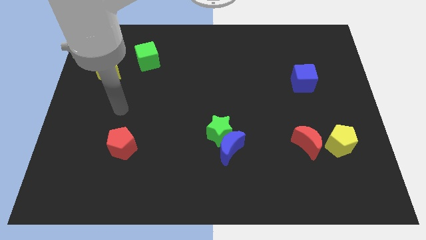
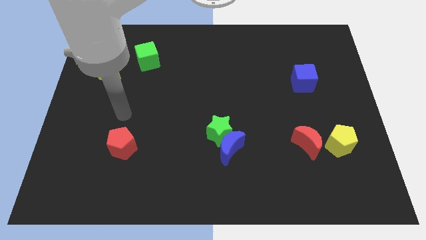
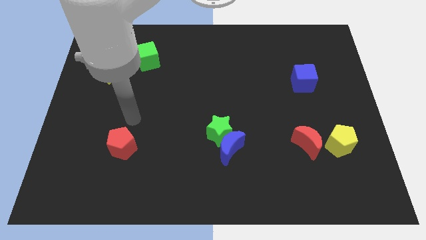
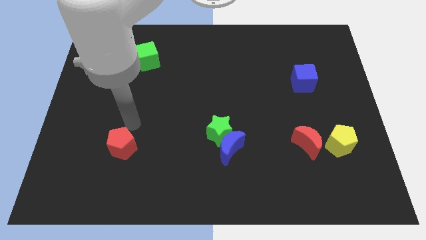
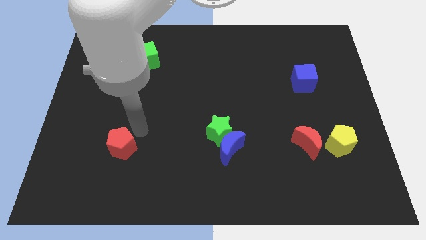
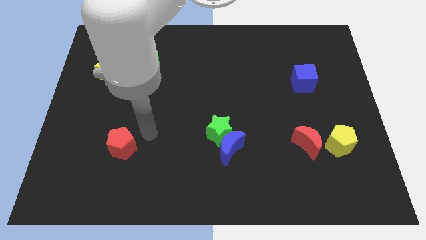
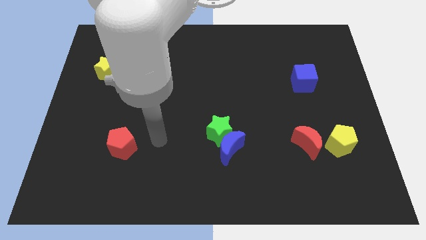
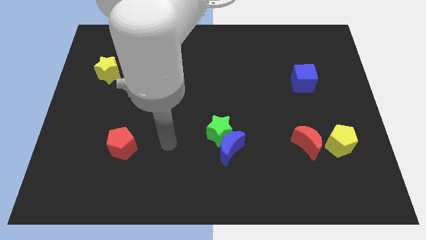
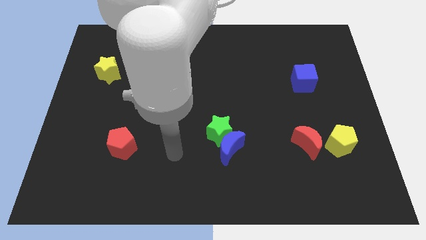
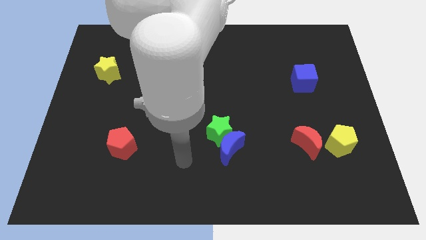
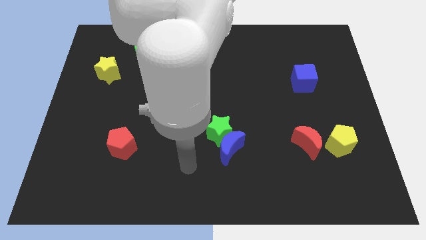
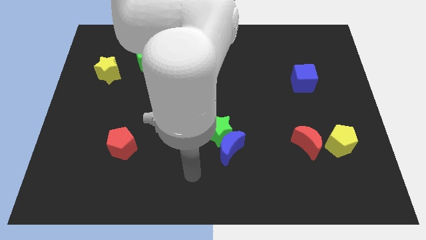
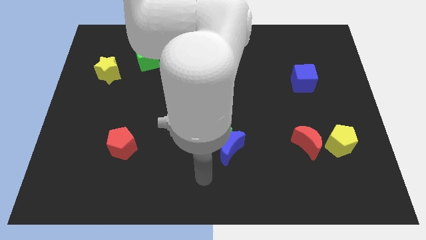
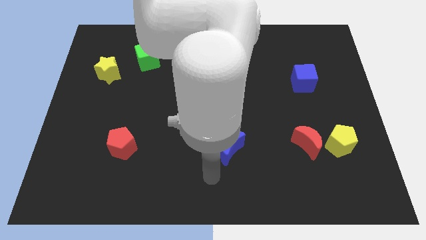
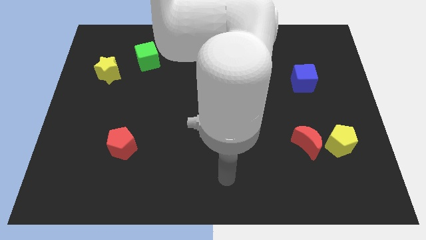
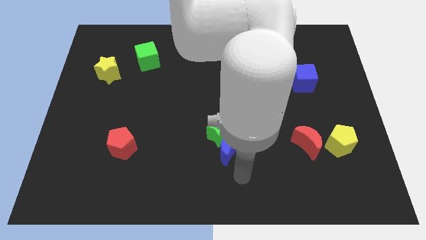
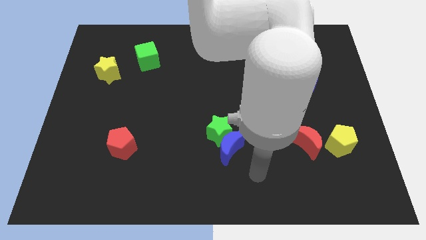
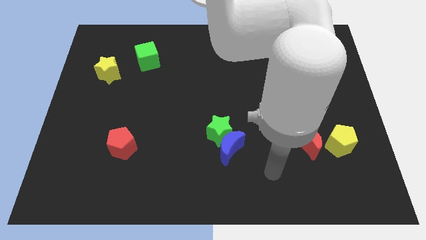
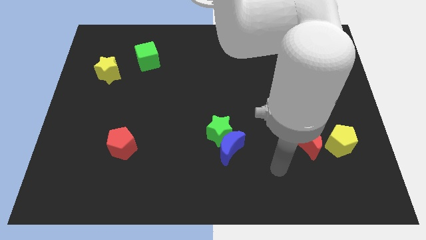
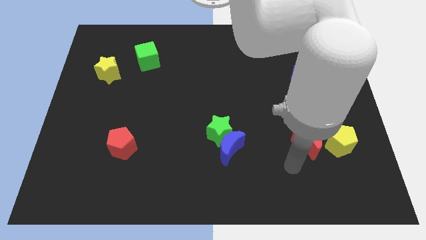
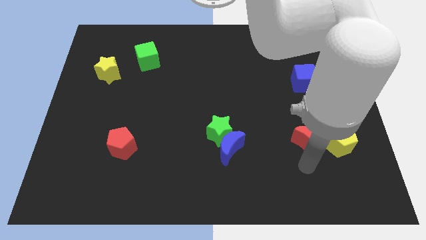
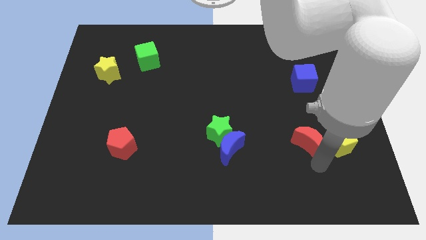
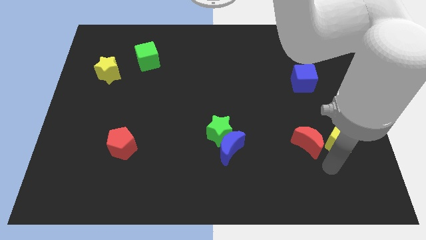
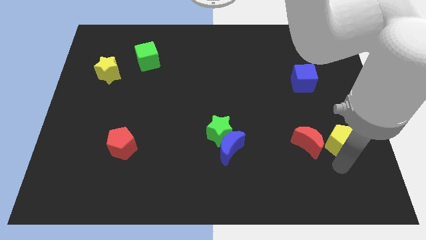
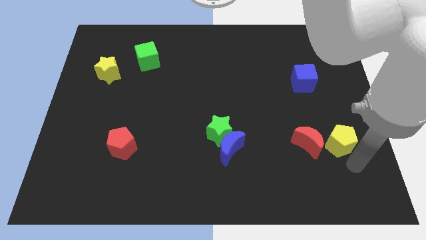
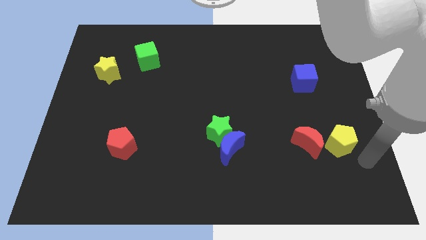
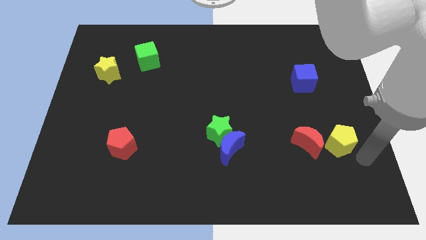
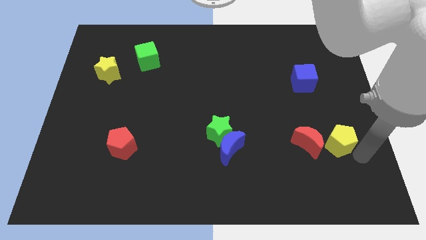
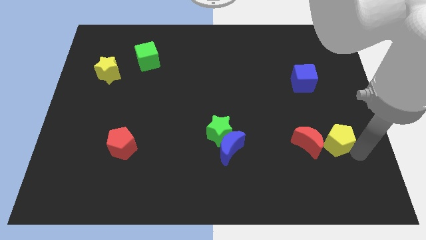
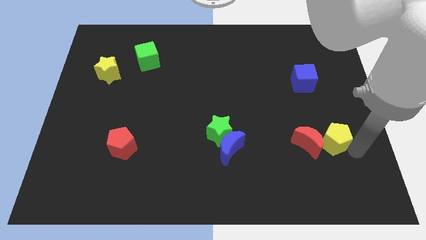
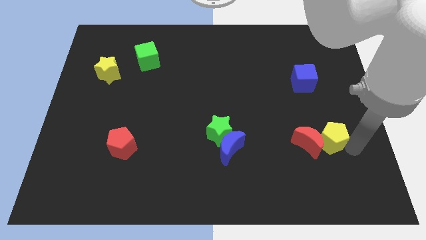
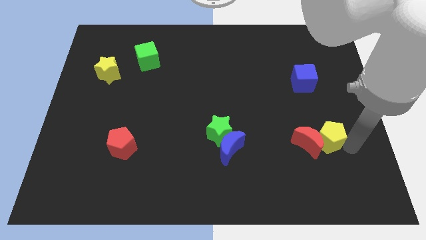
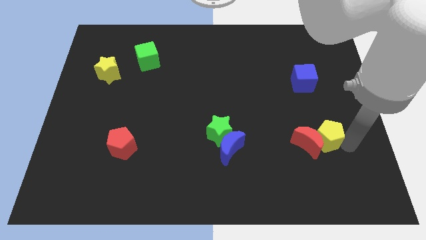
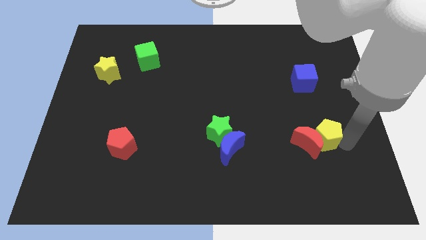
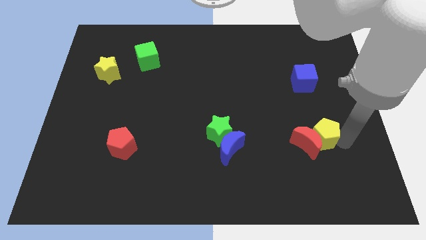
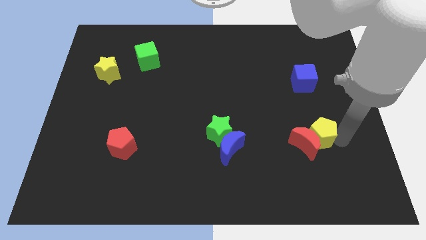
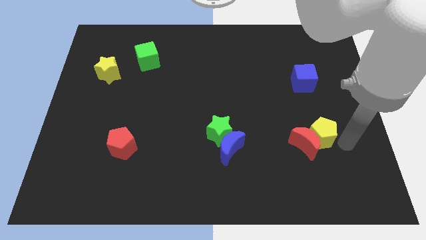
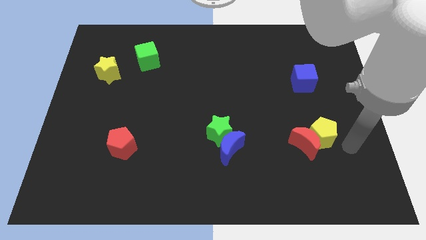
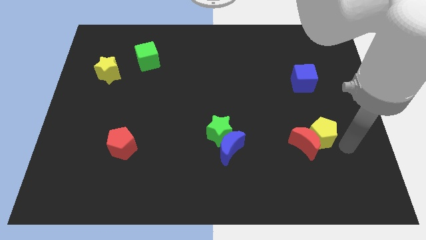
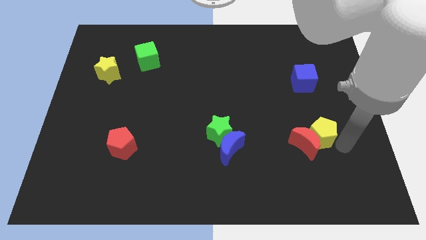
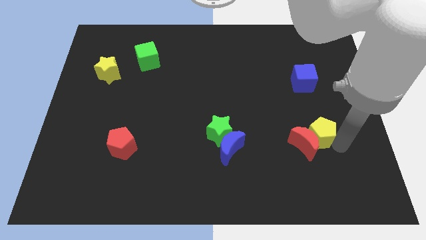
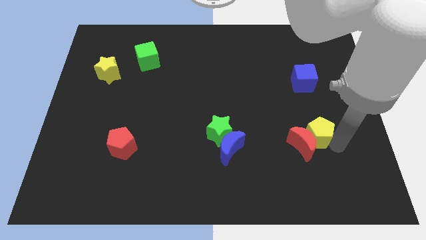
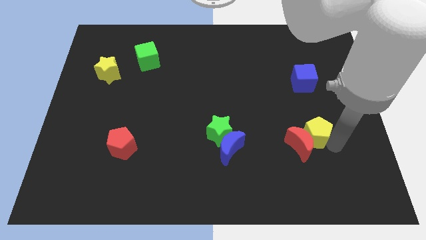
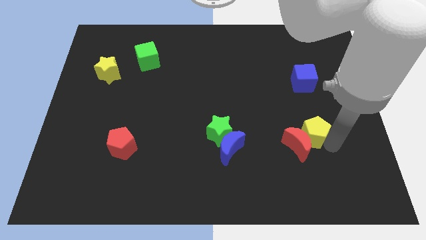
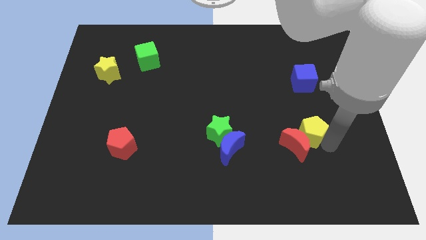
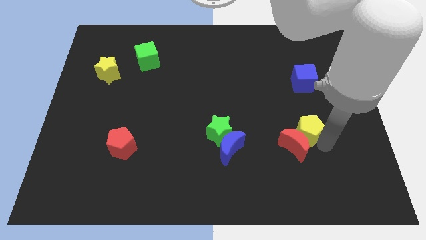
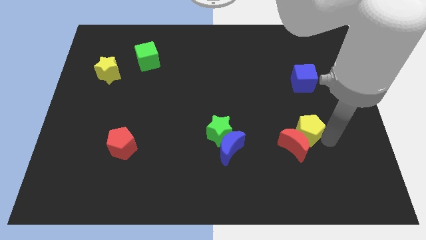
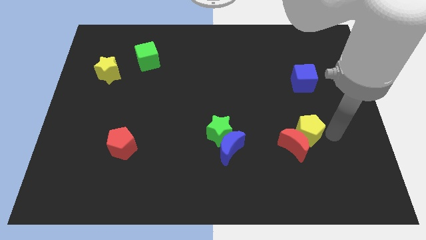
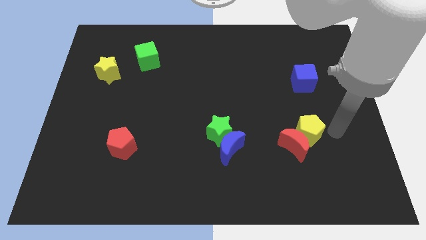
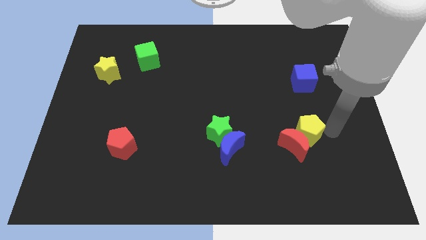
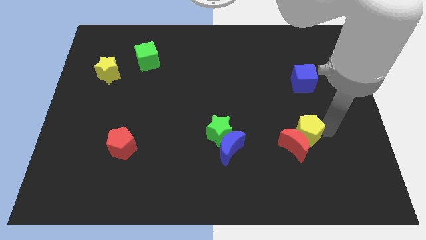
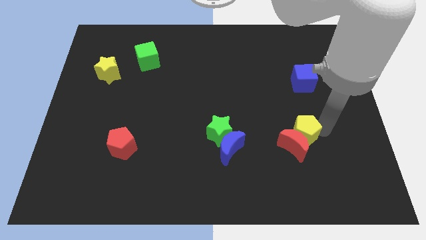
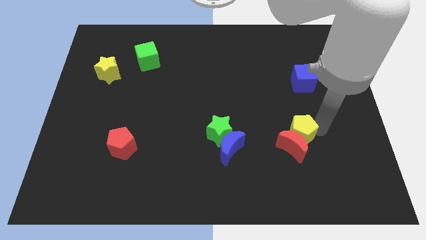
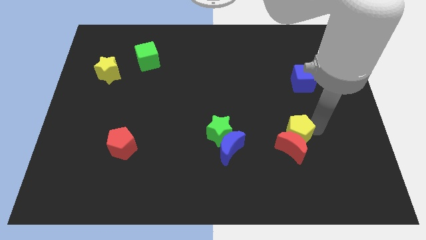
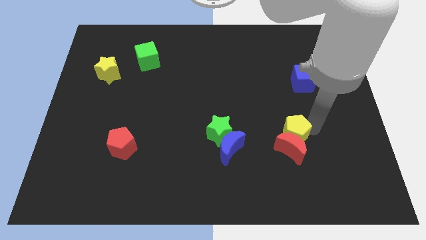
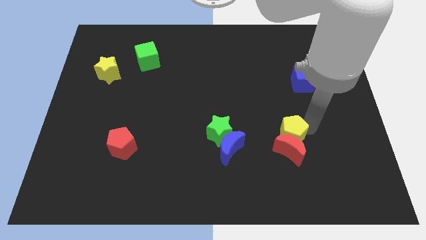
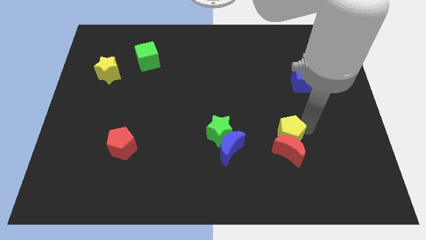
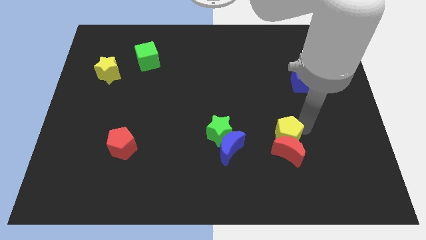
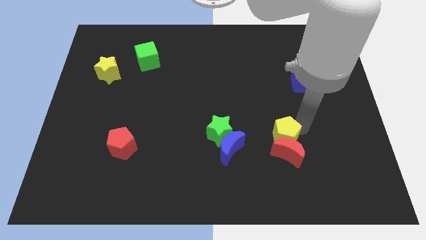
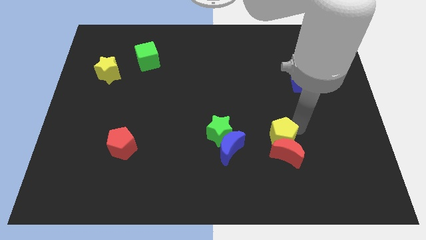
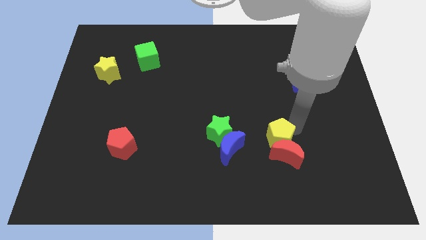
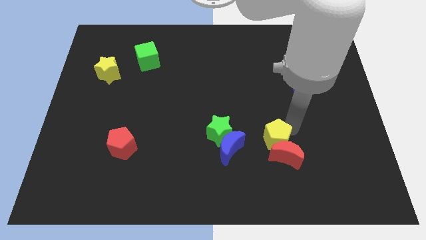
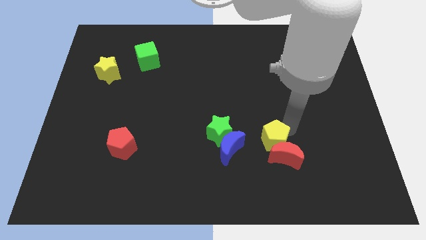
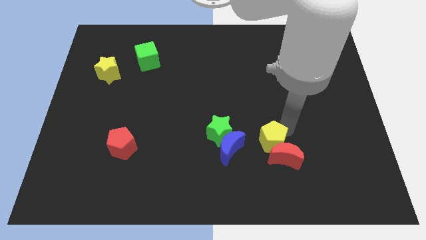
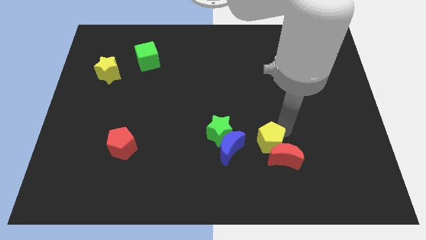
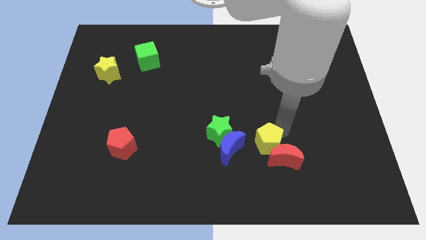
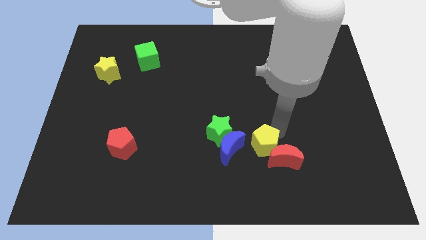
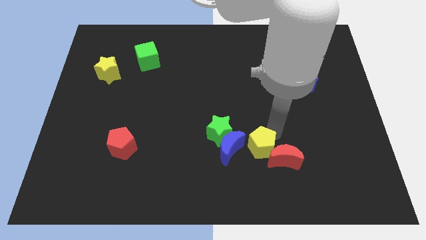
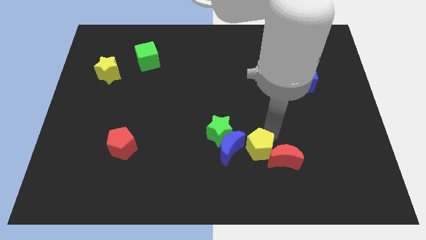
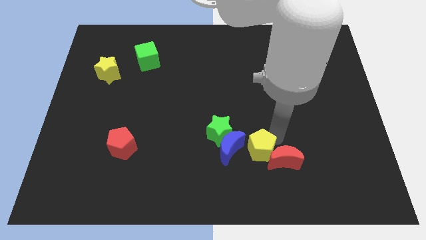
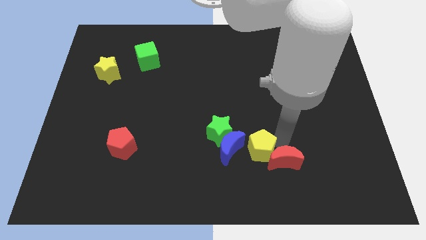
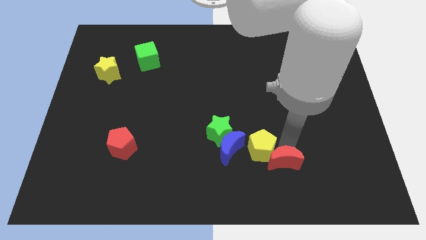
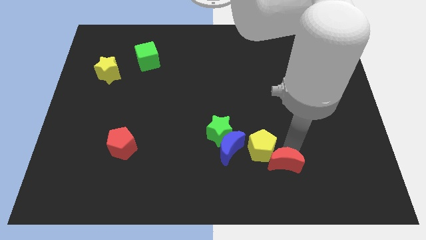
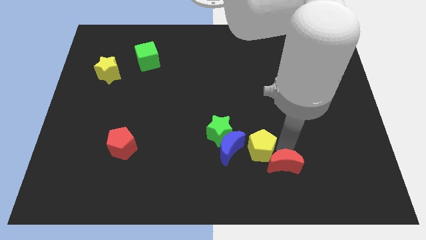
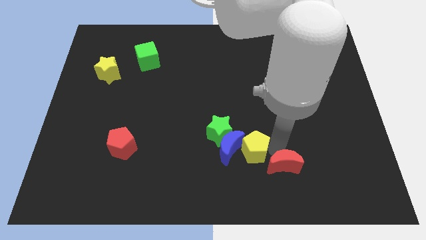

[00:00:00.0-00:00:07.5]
slide the yellow pentagon towards the blue moon
